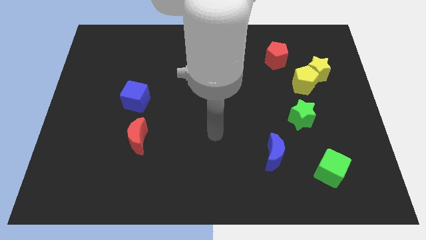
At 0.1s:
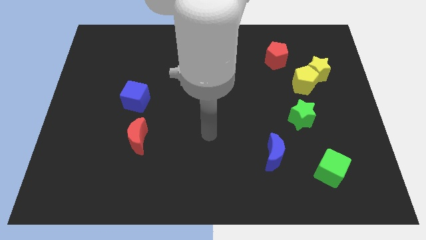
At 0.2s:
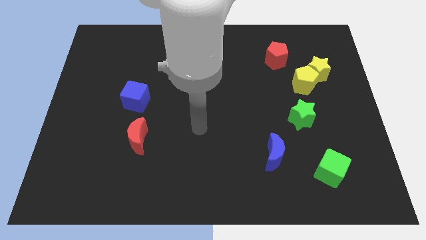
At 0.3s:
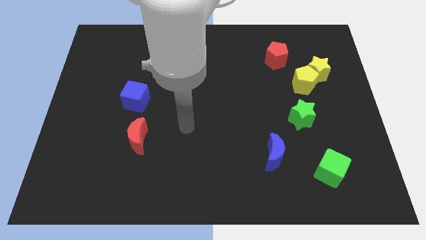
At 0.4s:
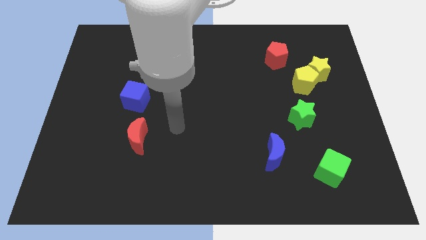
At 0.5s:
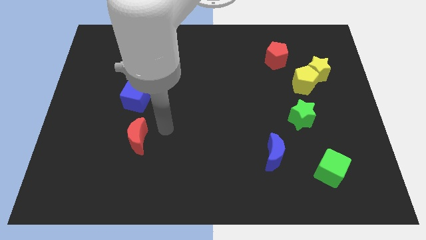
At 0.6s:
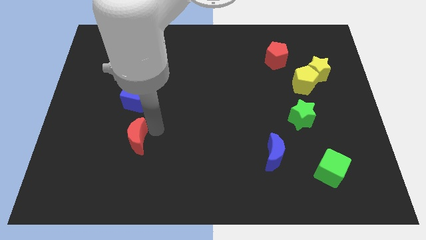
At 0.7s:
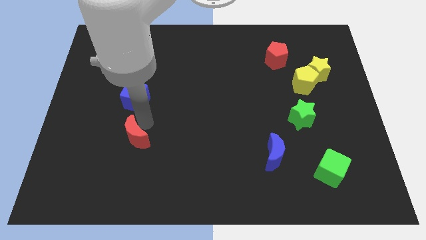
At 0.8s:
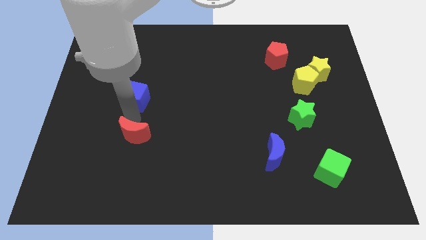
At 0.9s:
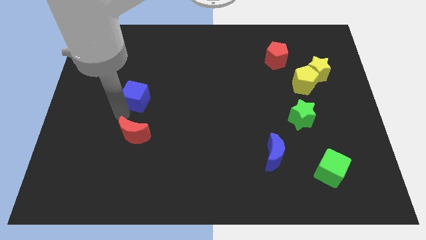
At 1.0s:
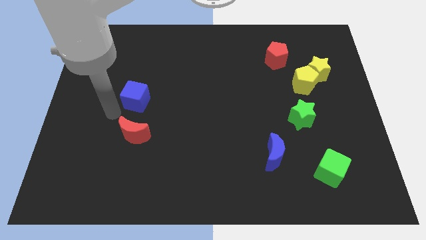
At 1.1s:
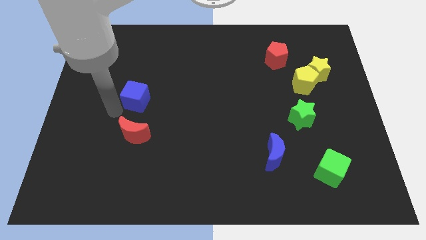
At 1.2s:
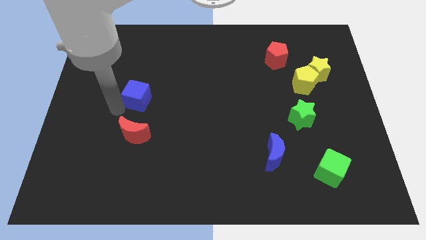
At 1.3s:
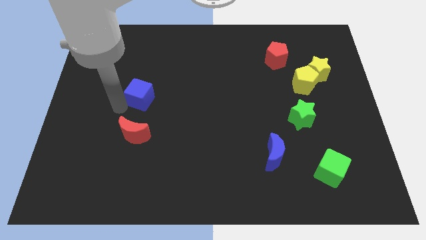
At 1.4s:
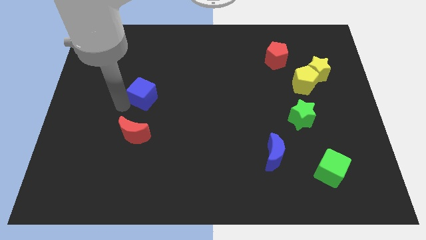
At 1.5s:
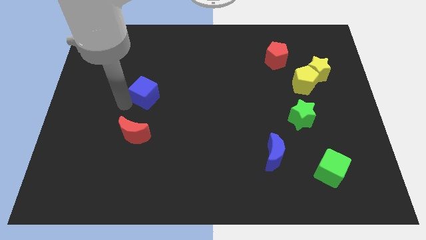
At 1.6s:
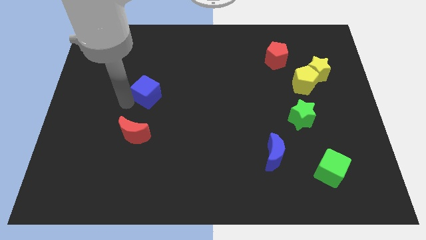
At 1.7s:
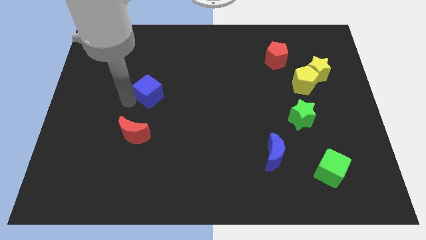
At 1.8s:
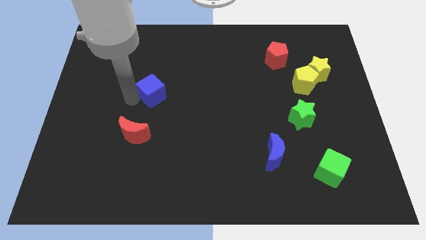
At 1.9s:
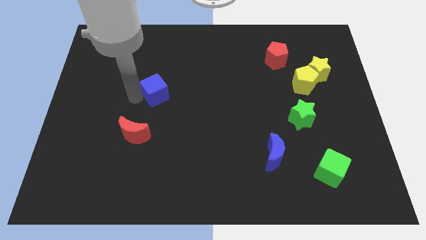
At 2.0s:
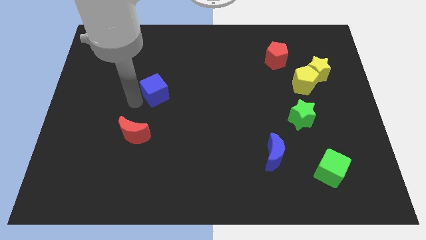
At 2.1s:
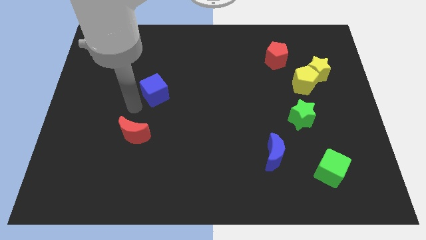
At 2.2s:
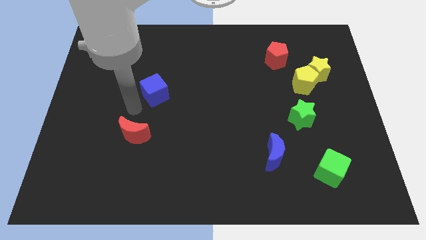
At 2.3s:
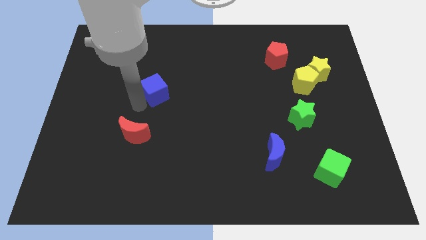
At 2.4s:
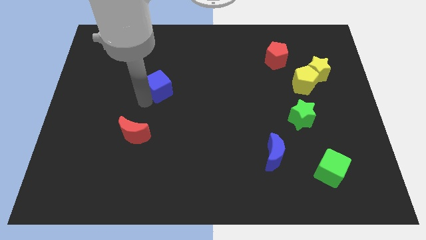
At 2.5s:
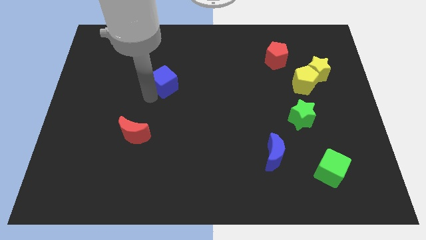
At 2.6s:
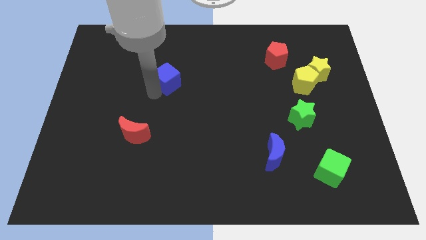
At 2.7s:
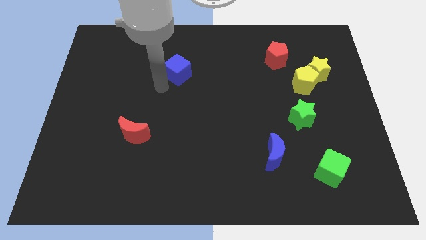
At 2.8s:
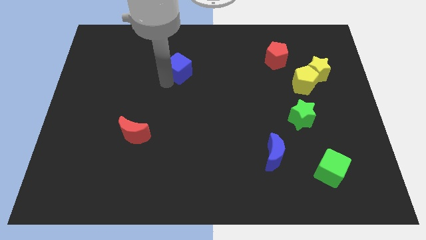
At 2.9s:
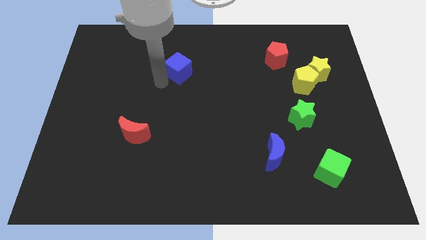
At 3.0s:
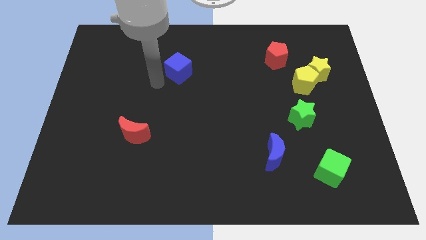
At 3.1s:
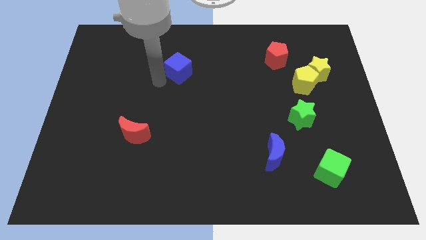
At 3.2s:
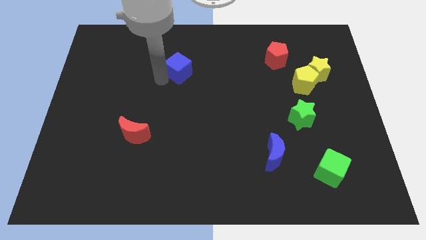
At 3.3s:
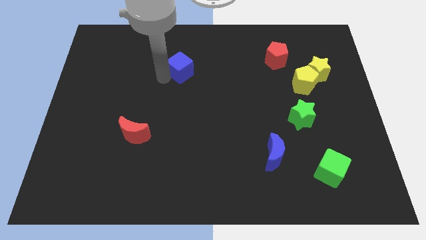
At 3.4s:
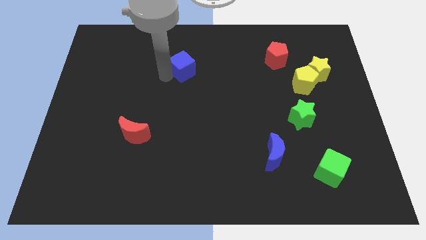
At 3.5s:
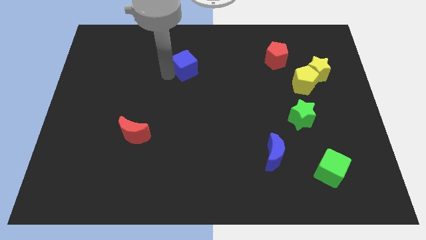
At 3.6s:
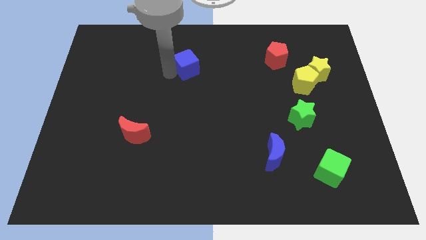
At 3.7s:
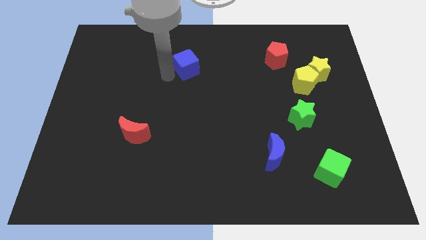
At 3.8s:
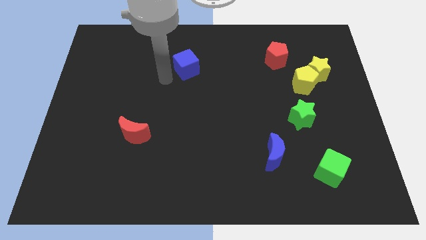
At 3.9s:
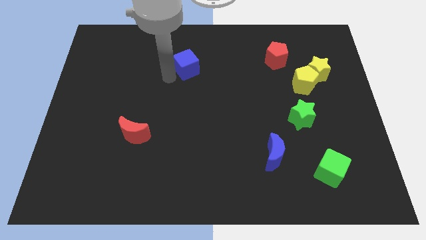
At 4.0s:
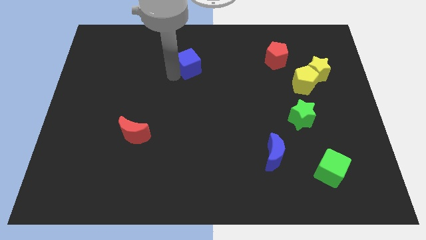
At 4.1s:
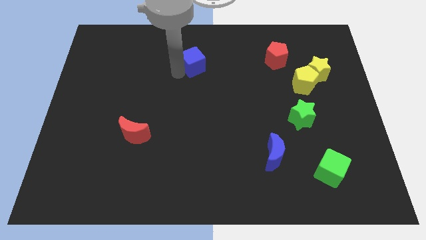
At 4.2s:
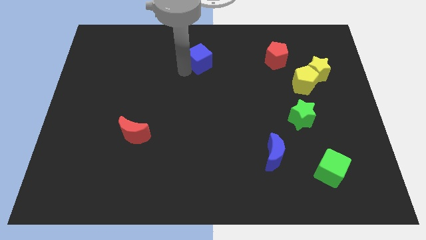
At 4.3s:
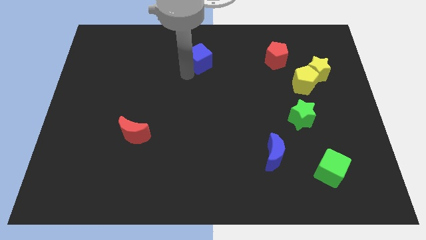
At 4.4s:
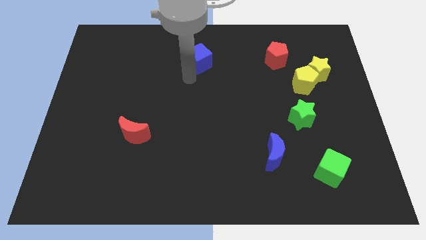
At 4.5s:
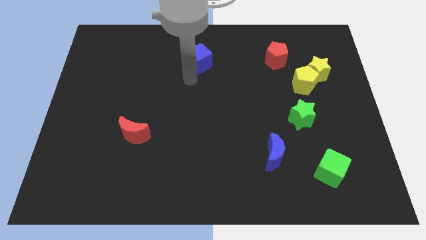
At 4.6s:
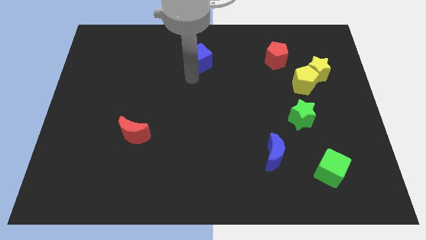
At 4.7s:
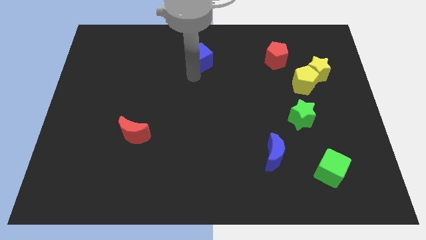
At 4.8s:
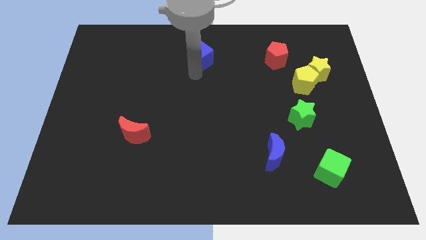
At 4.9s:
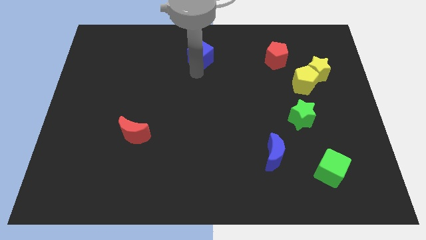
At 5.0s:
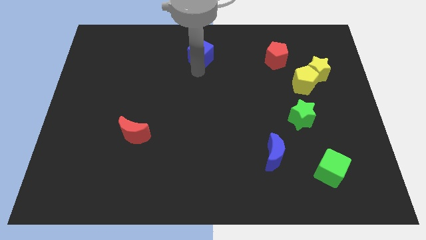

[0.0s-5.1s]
put the blue cube to the towards your base

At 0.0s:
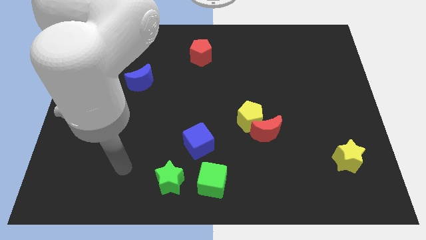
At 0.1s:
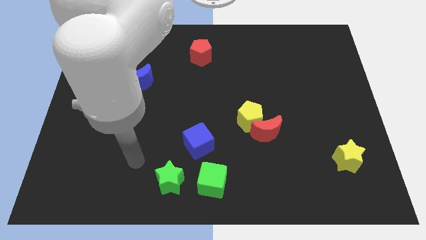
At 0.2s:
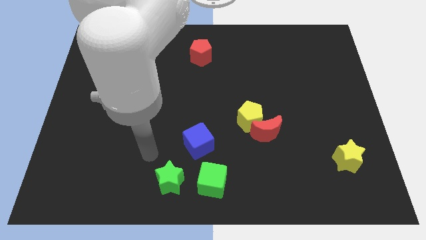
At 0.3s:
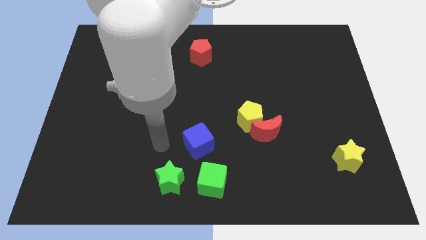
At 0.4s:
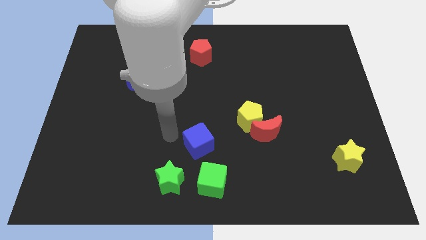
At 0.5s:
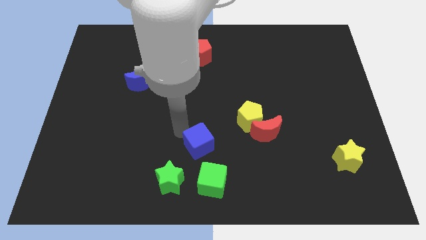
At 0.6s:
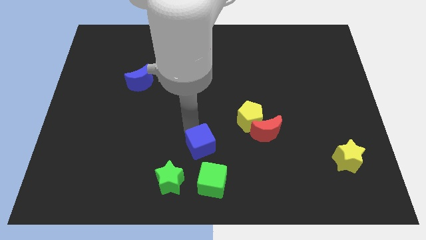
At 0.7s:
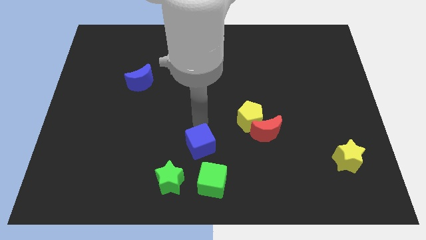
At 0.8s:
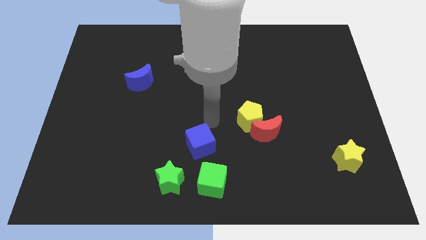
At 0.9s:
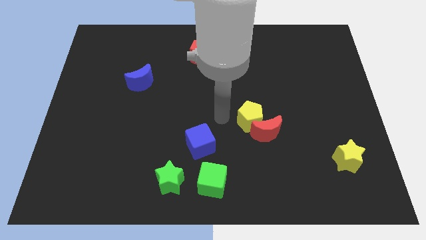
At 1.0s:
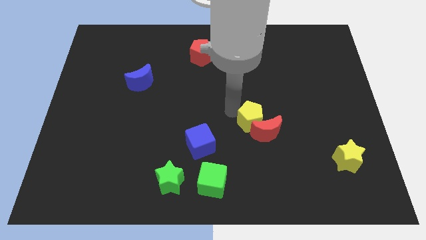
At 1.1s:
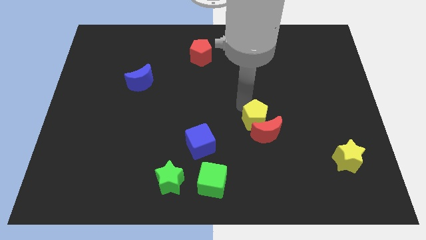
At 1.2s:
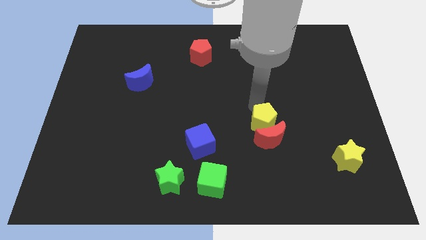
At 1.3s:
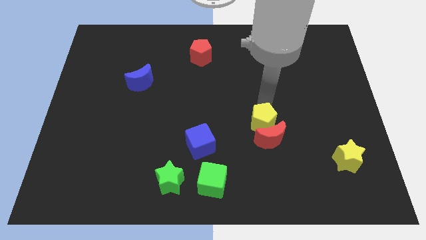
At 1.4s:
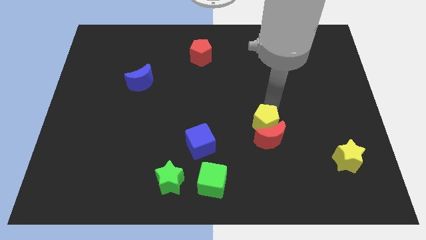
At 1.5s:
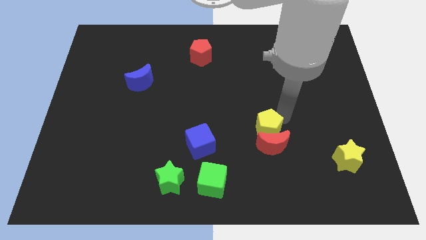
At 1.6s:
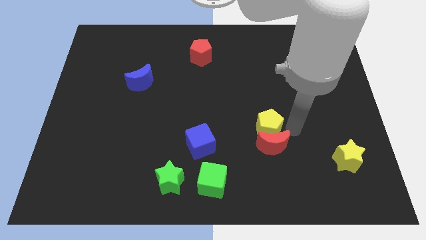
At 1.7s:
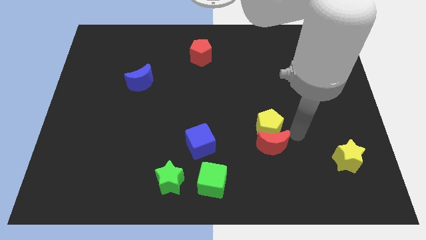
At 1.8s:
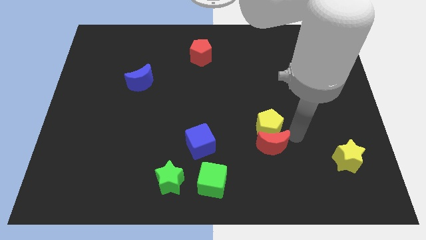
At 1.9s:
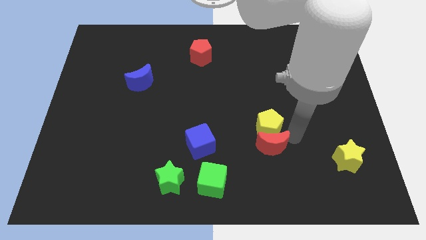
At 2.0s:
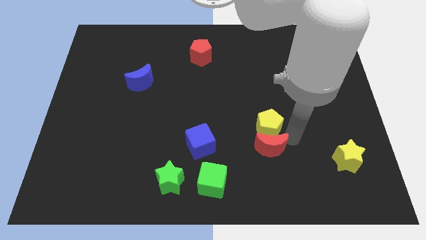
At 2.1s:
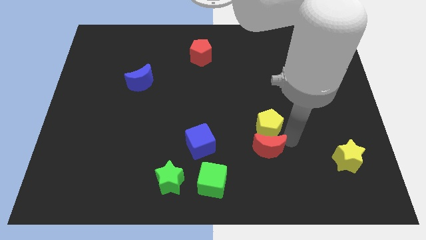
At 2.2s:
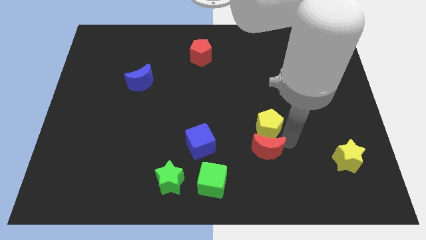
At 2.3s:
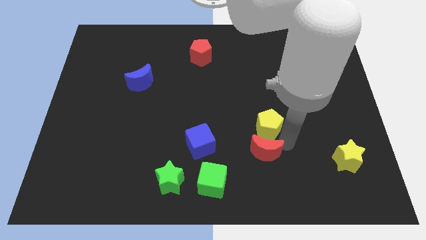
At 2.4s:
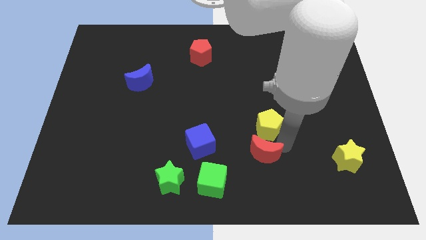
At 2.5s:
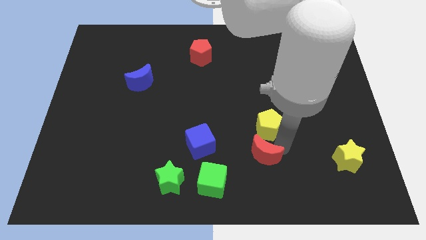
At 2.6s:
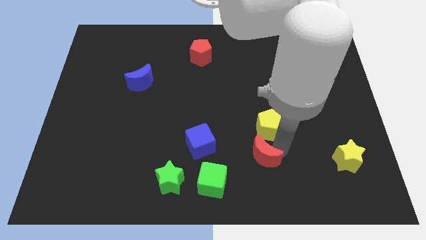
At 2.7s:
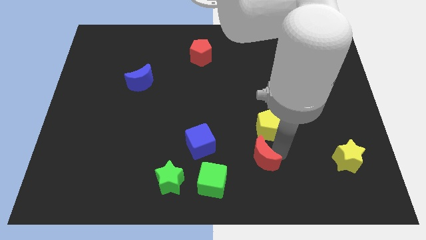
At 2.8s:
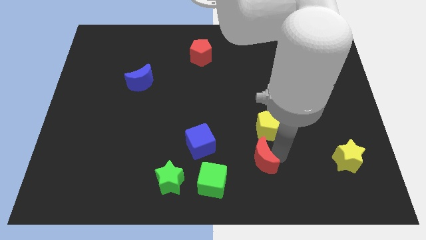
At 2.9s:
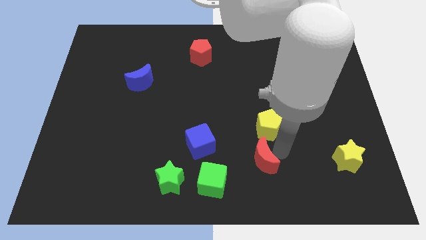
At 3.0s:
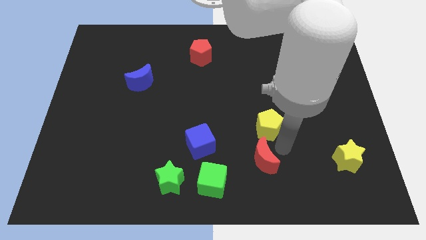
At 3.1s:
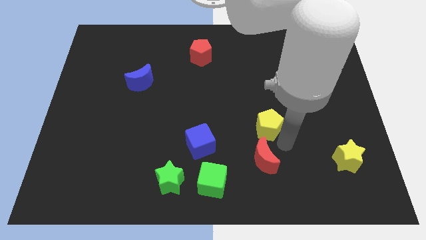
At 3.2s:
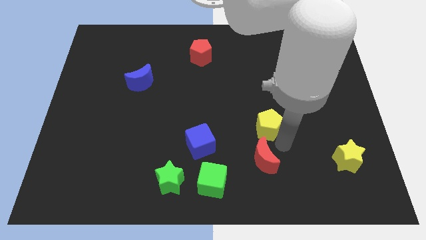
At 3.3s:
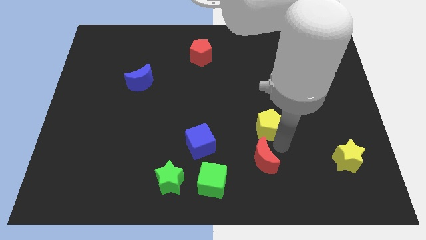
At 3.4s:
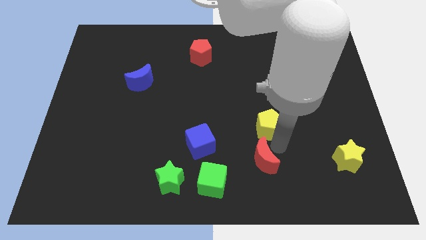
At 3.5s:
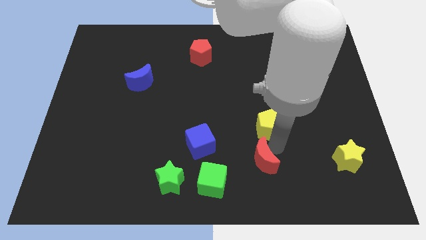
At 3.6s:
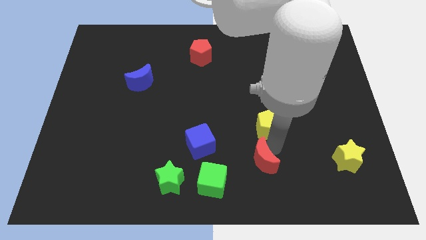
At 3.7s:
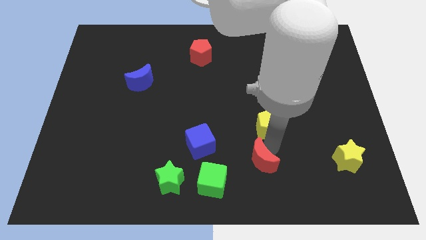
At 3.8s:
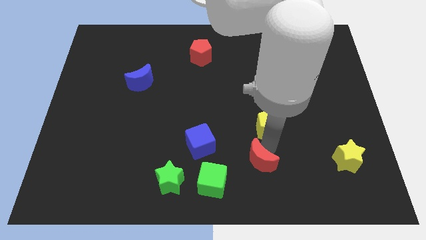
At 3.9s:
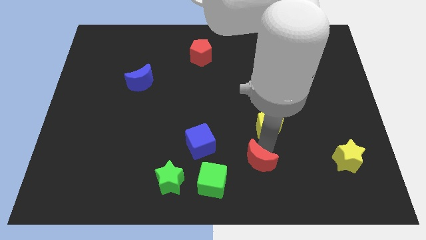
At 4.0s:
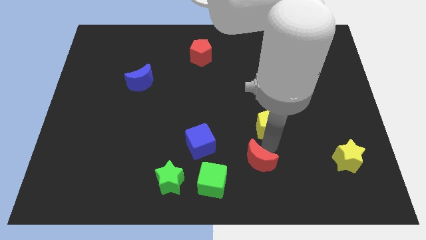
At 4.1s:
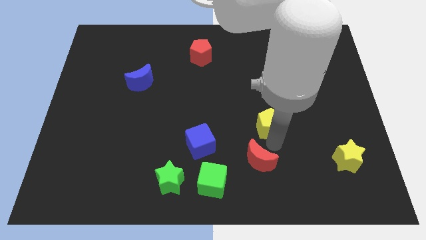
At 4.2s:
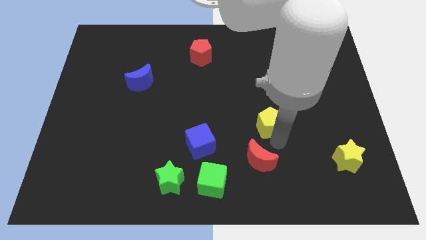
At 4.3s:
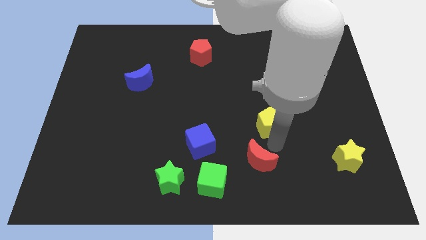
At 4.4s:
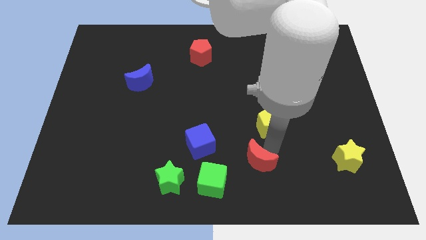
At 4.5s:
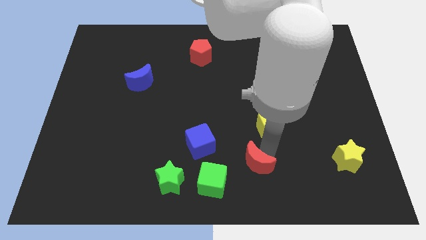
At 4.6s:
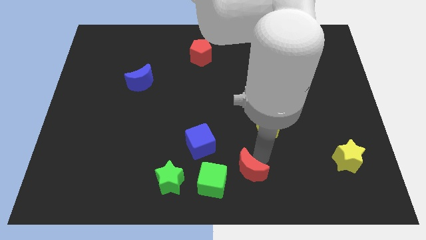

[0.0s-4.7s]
put the red moon to the bottom
